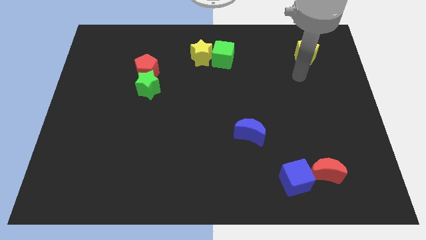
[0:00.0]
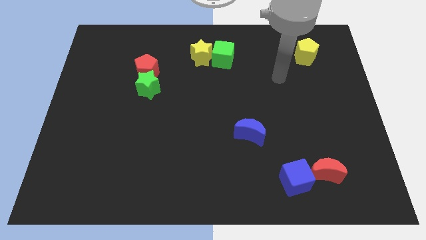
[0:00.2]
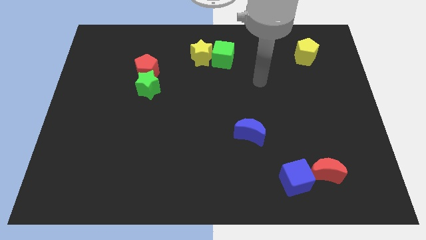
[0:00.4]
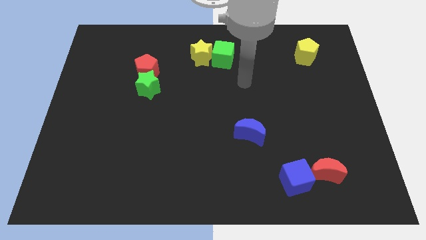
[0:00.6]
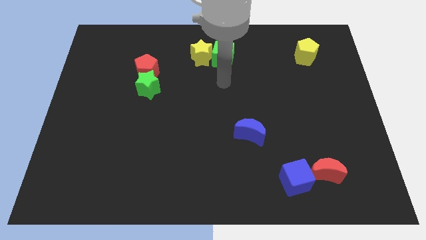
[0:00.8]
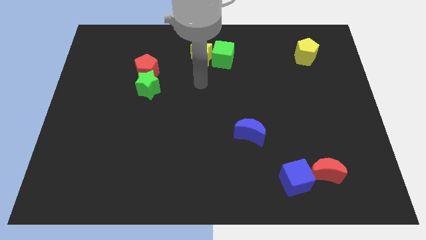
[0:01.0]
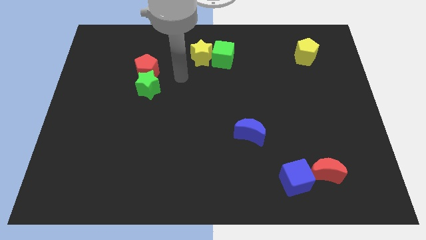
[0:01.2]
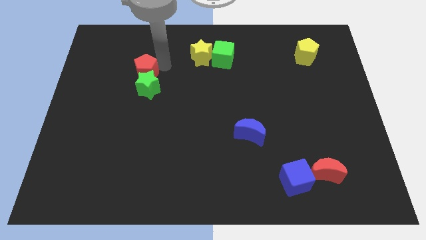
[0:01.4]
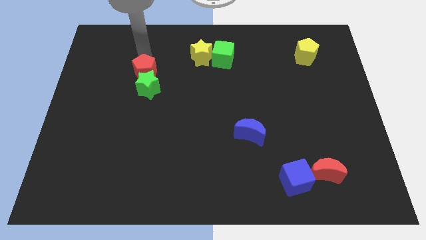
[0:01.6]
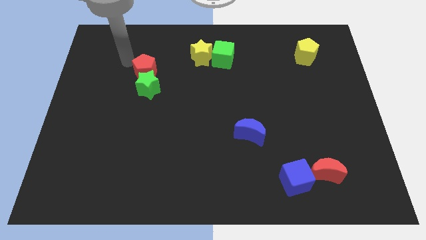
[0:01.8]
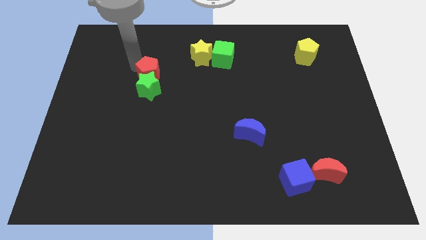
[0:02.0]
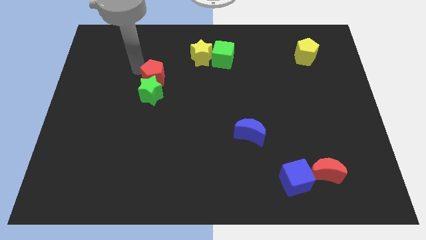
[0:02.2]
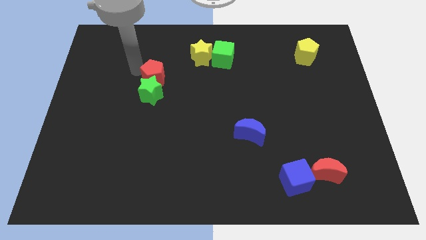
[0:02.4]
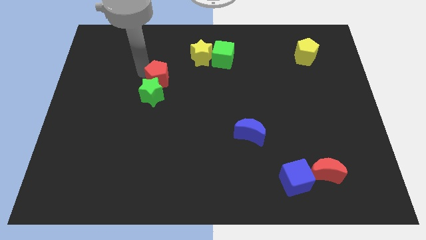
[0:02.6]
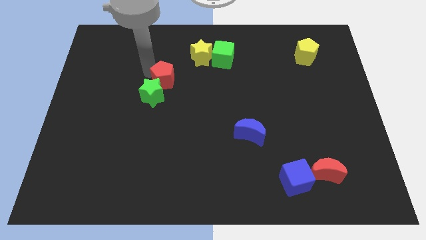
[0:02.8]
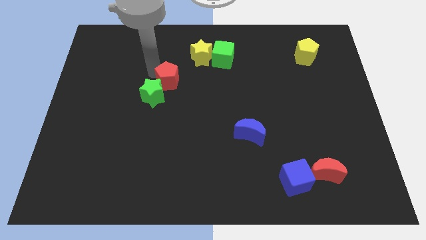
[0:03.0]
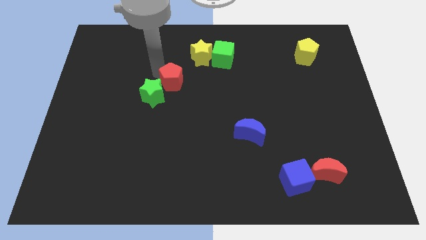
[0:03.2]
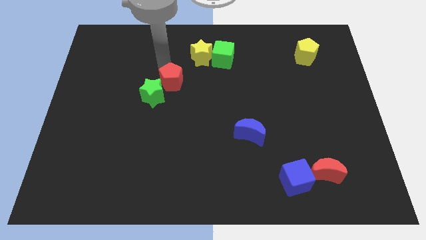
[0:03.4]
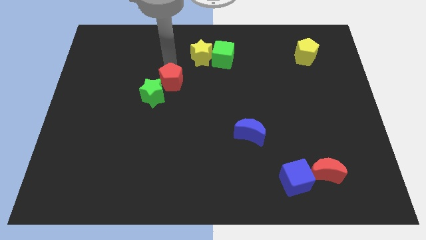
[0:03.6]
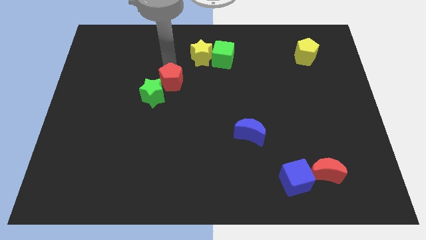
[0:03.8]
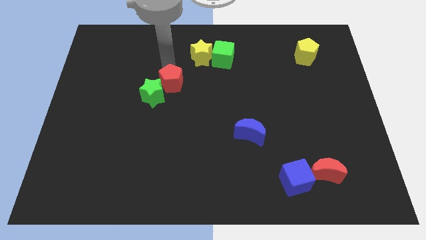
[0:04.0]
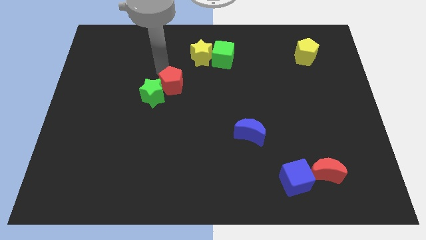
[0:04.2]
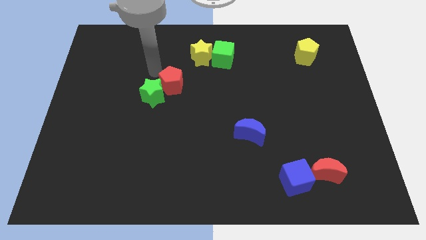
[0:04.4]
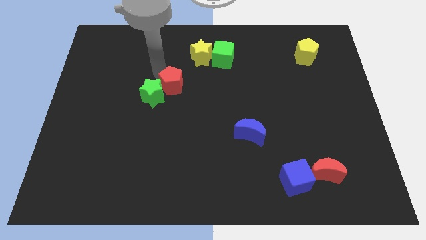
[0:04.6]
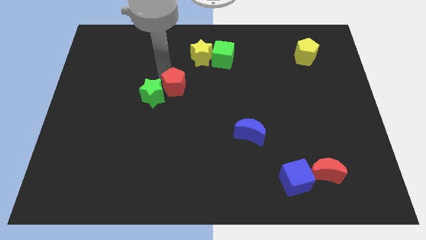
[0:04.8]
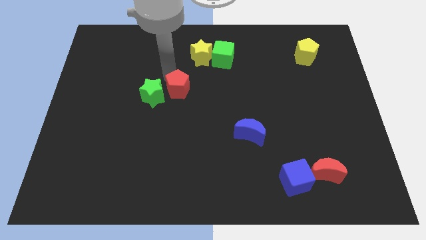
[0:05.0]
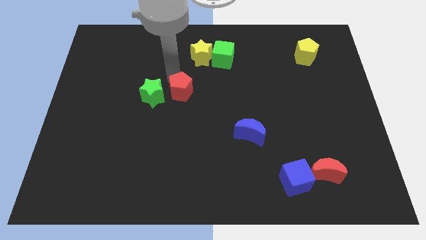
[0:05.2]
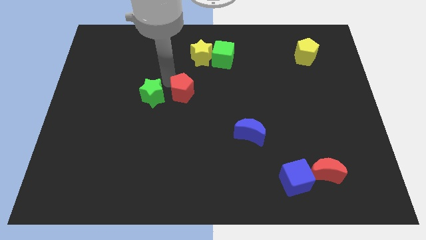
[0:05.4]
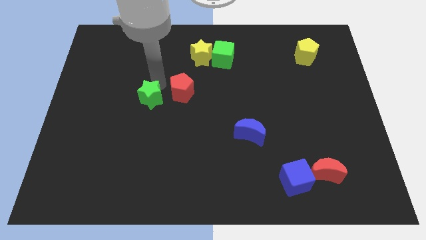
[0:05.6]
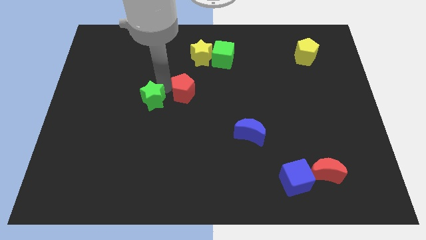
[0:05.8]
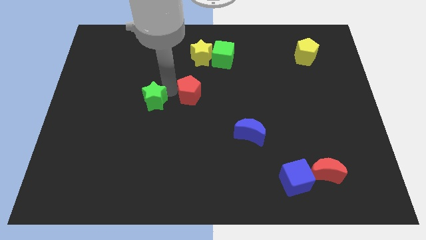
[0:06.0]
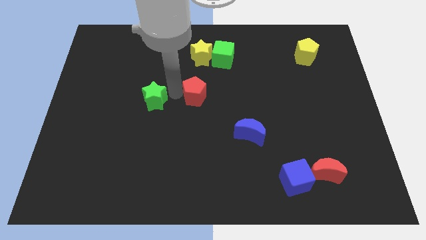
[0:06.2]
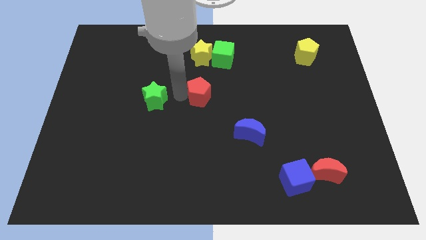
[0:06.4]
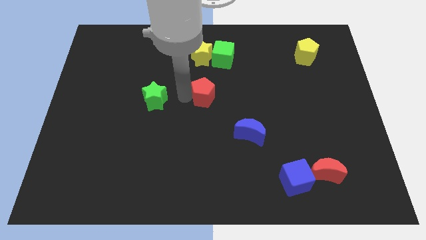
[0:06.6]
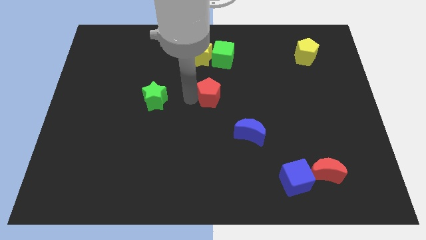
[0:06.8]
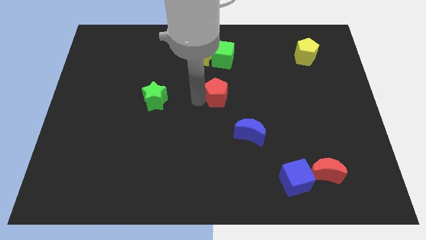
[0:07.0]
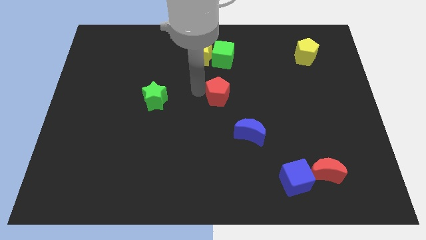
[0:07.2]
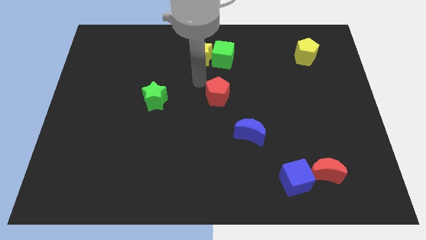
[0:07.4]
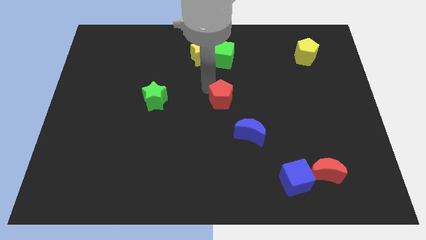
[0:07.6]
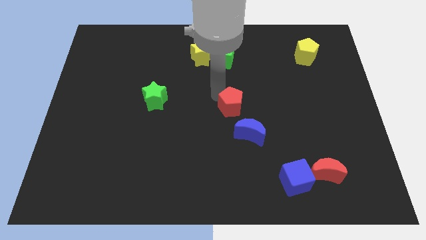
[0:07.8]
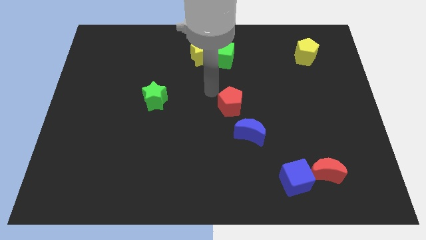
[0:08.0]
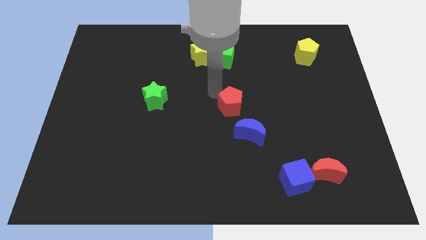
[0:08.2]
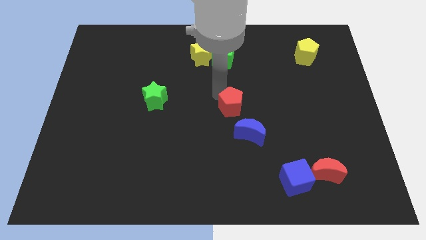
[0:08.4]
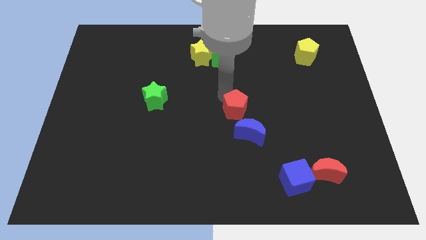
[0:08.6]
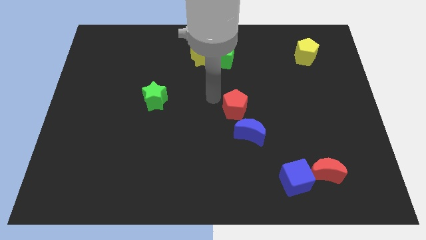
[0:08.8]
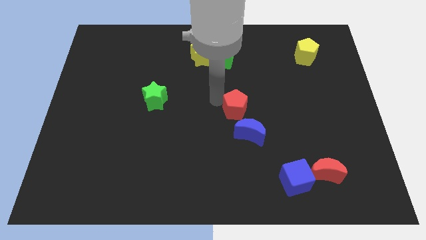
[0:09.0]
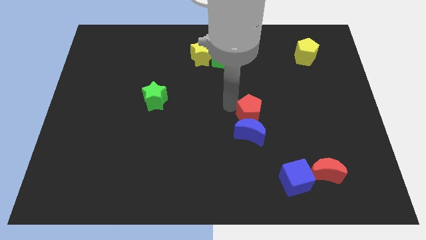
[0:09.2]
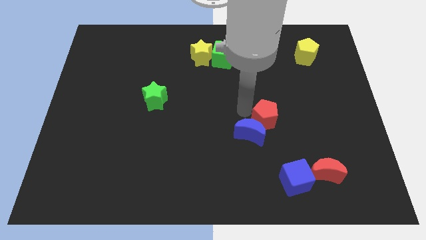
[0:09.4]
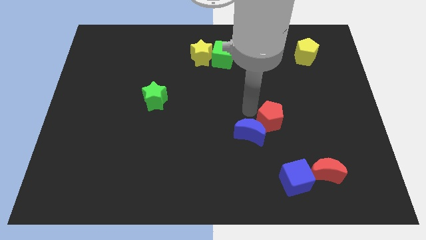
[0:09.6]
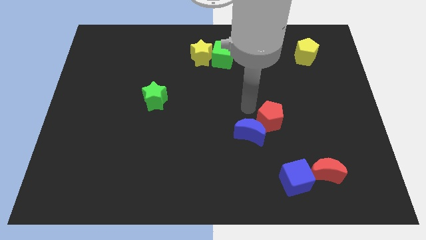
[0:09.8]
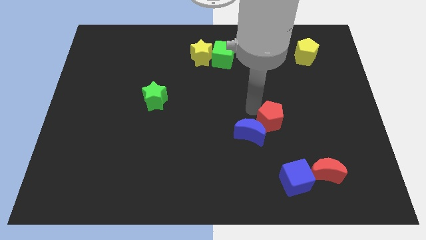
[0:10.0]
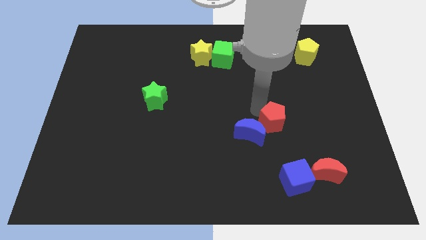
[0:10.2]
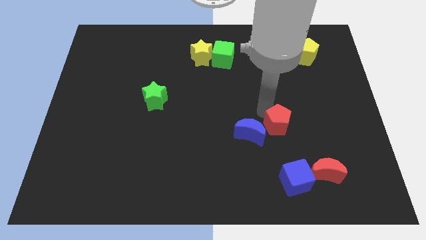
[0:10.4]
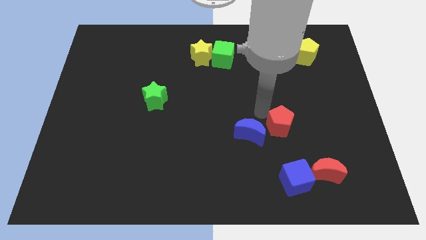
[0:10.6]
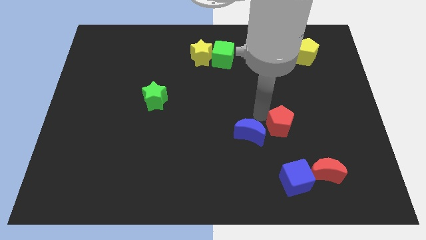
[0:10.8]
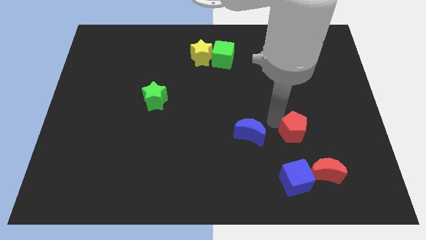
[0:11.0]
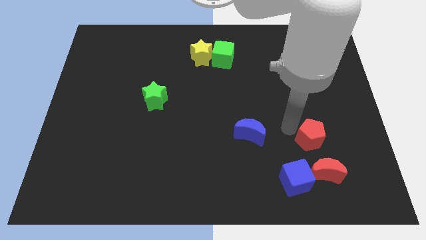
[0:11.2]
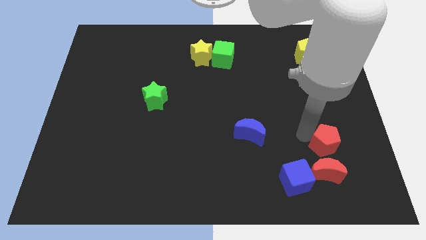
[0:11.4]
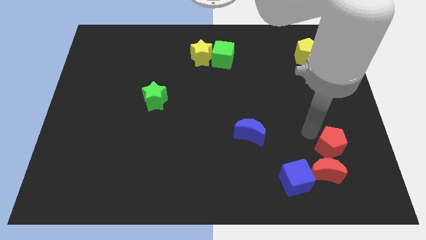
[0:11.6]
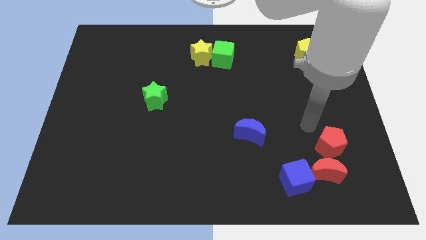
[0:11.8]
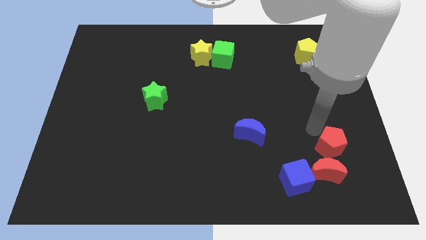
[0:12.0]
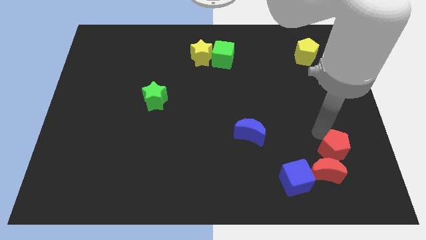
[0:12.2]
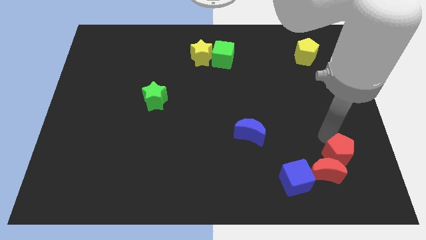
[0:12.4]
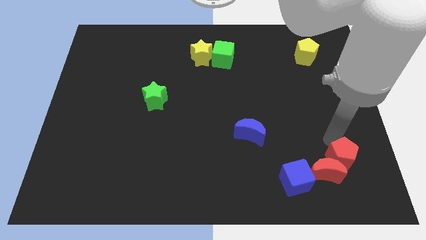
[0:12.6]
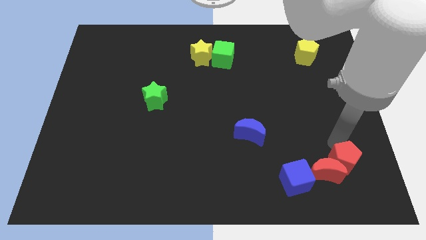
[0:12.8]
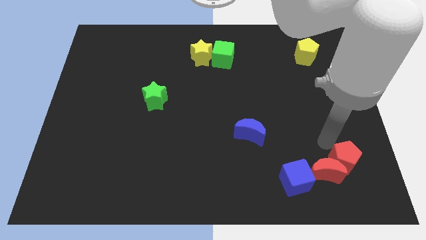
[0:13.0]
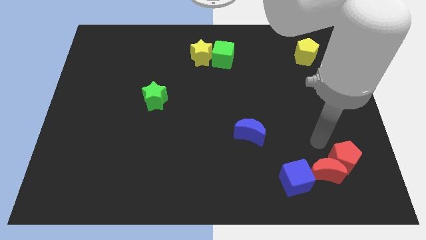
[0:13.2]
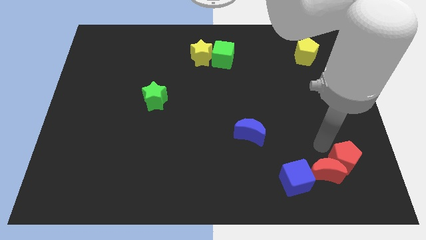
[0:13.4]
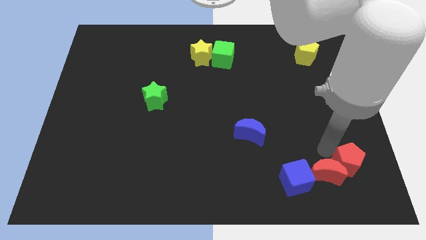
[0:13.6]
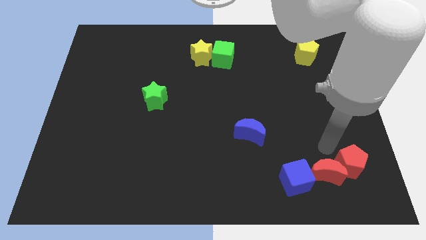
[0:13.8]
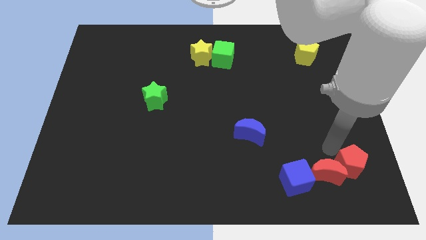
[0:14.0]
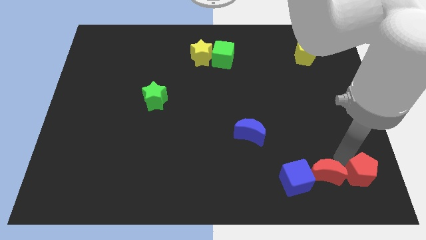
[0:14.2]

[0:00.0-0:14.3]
put the red pentagon to the bottom right
